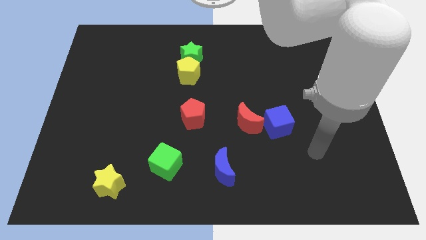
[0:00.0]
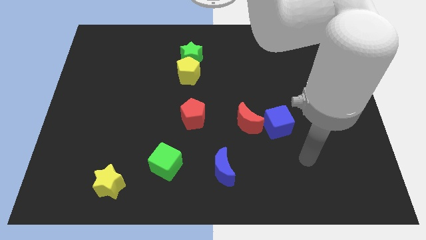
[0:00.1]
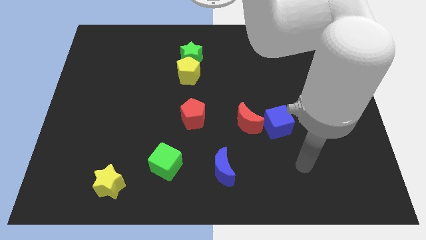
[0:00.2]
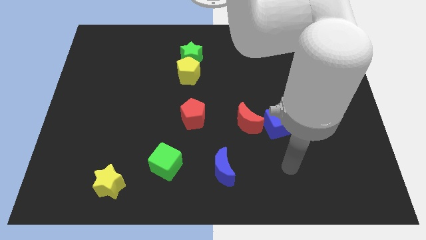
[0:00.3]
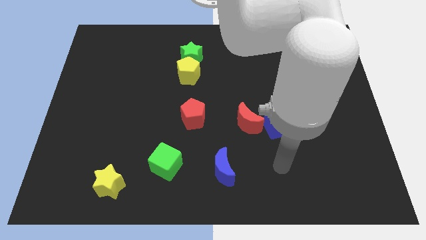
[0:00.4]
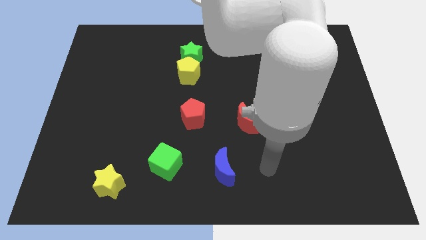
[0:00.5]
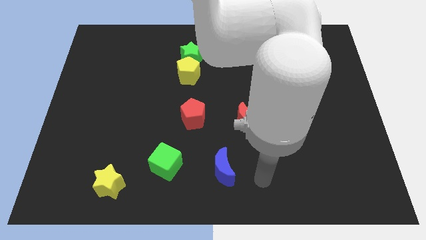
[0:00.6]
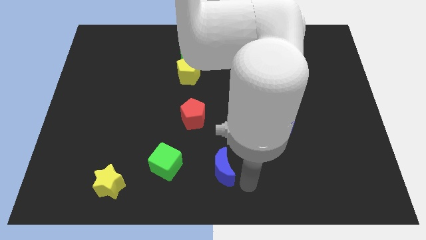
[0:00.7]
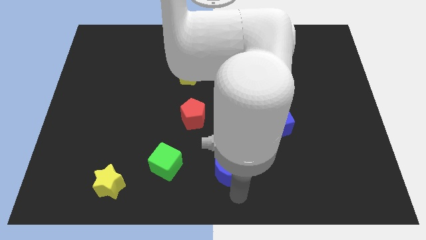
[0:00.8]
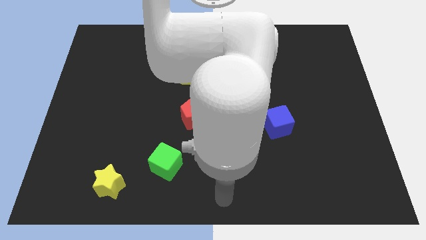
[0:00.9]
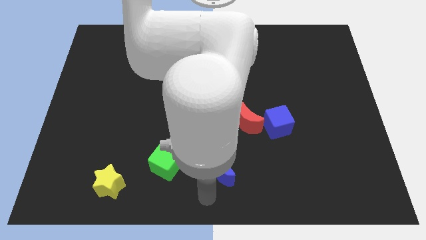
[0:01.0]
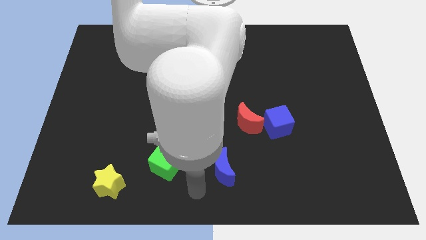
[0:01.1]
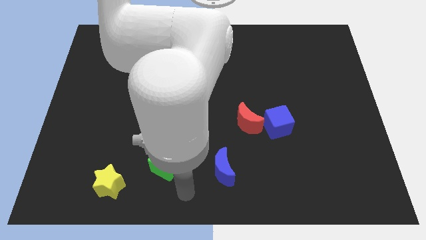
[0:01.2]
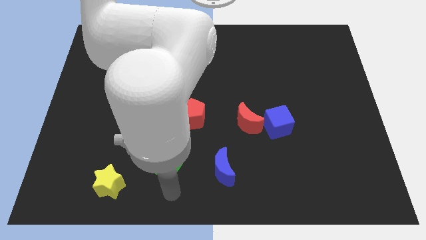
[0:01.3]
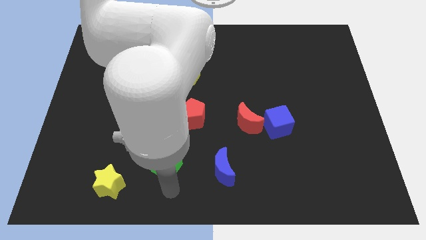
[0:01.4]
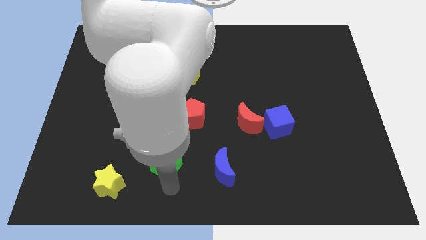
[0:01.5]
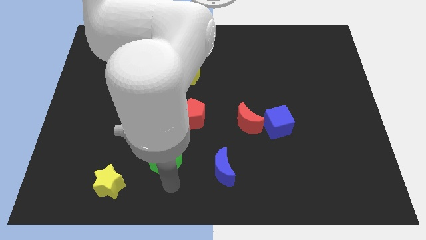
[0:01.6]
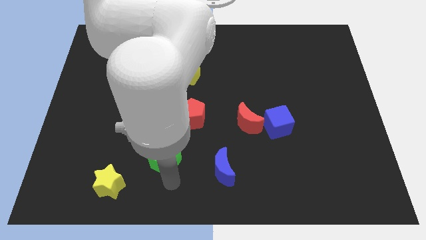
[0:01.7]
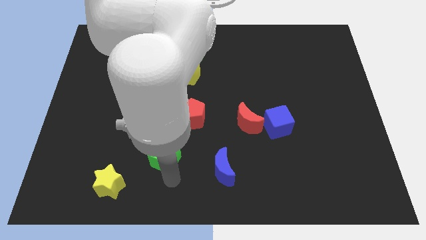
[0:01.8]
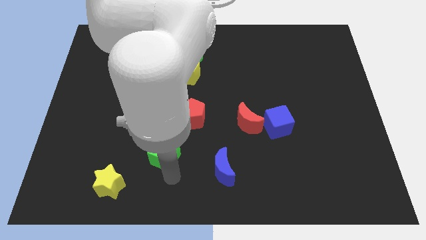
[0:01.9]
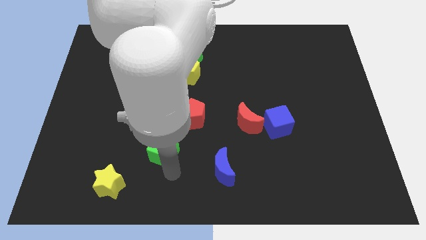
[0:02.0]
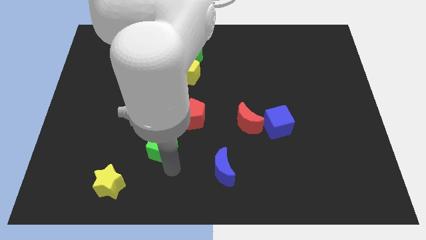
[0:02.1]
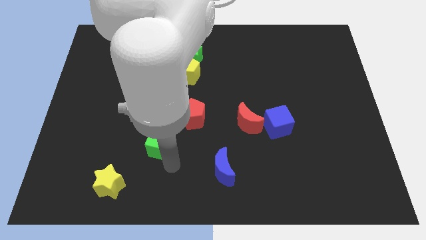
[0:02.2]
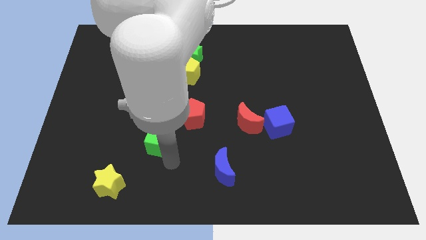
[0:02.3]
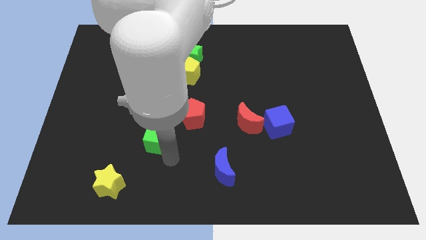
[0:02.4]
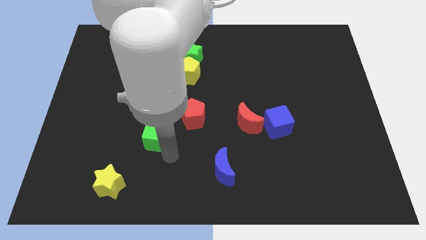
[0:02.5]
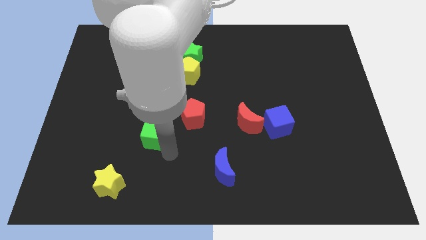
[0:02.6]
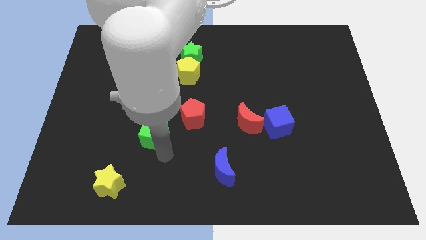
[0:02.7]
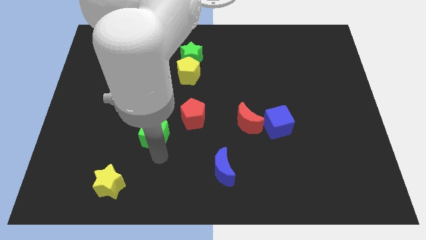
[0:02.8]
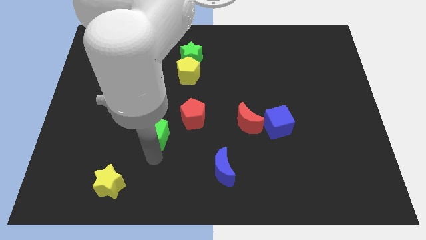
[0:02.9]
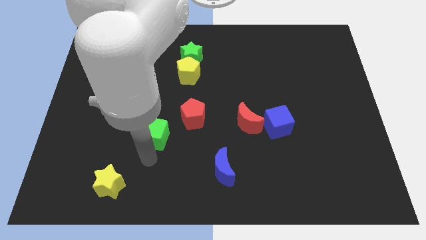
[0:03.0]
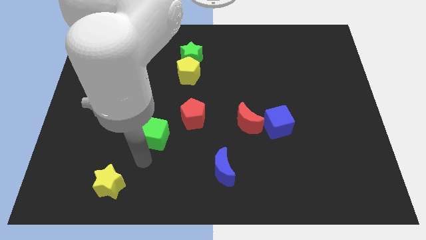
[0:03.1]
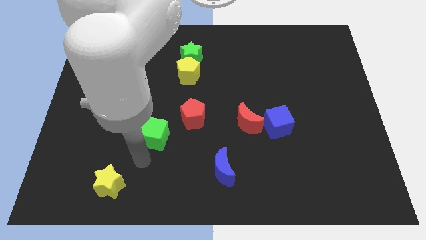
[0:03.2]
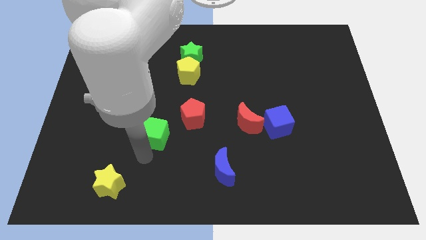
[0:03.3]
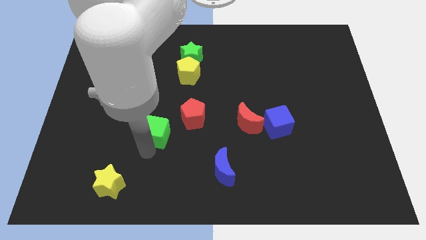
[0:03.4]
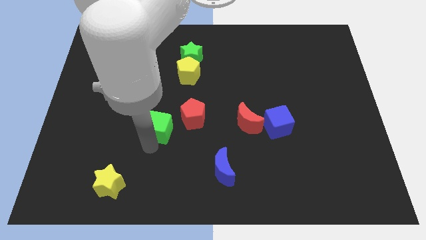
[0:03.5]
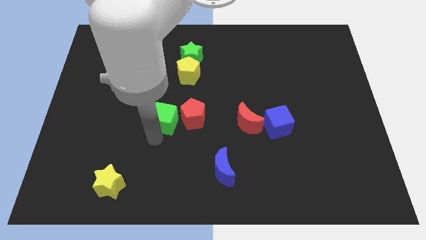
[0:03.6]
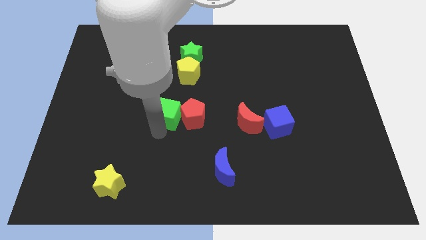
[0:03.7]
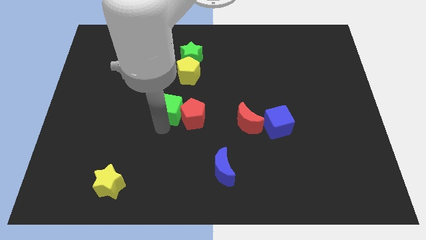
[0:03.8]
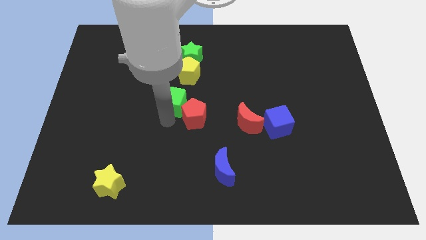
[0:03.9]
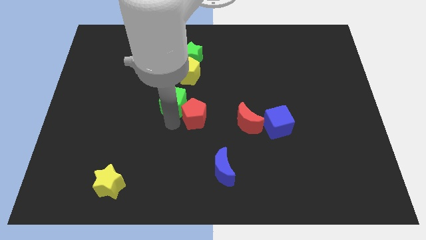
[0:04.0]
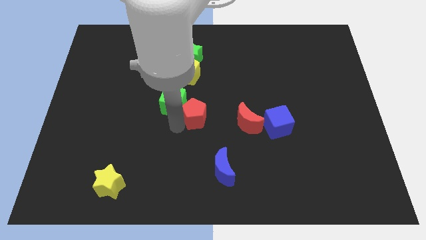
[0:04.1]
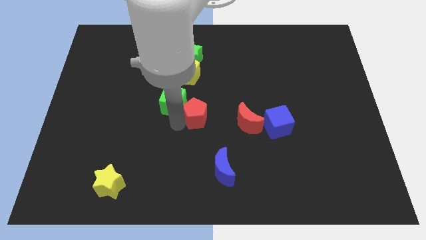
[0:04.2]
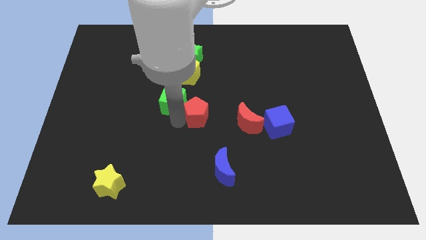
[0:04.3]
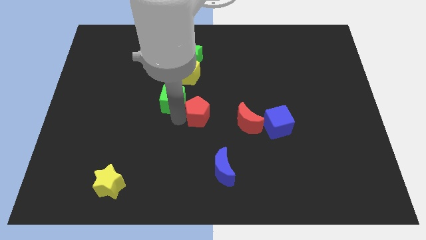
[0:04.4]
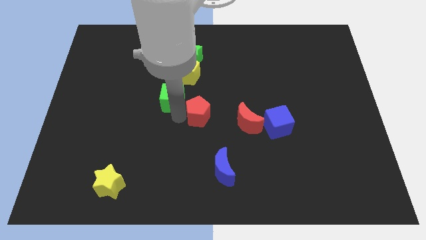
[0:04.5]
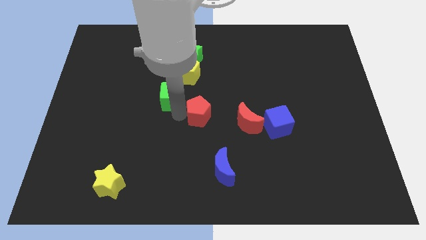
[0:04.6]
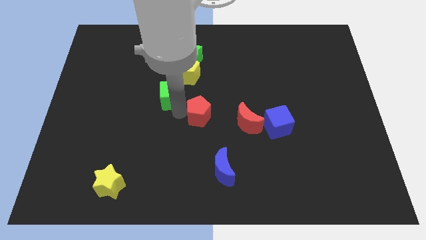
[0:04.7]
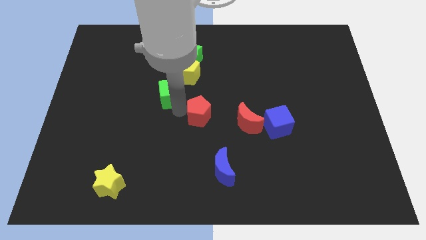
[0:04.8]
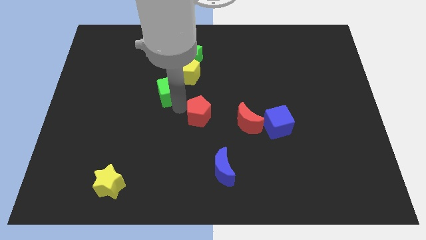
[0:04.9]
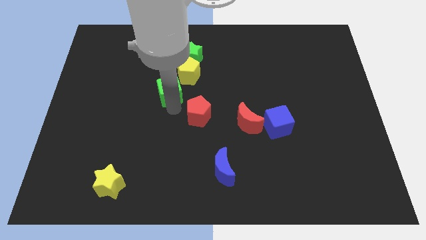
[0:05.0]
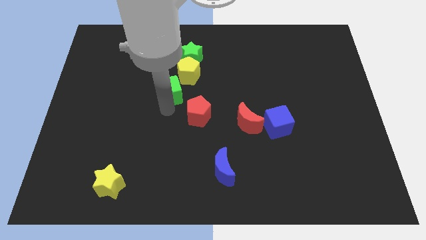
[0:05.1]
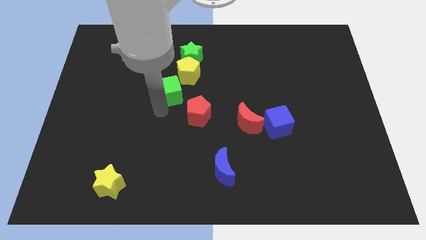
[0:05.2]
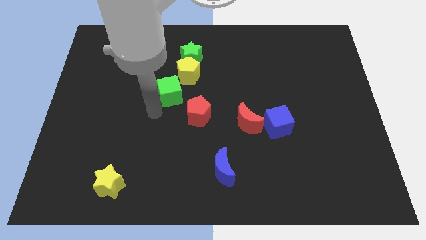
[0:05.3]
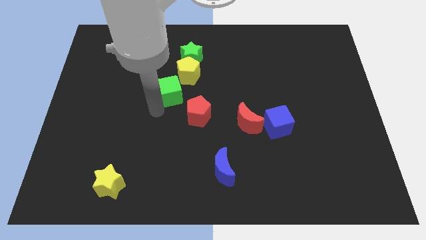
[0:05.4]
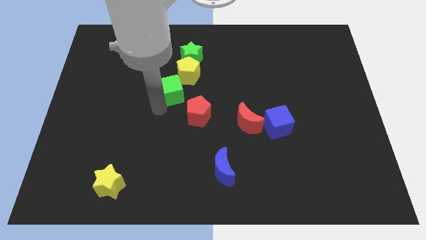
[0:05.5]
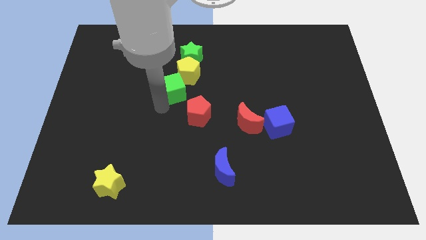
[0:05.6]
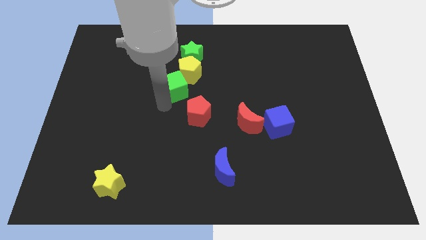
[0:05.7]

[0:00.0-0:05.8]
move the green cube to the yellow pentagon
